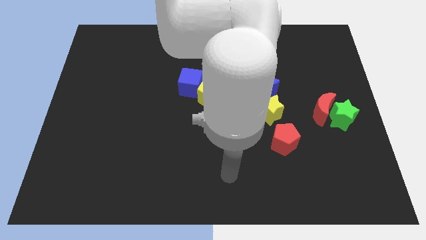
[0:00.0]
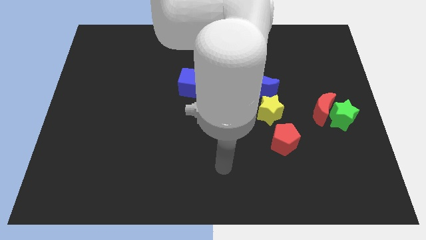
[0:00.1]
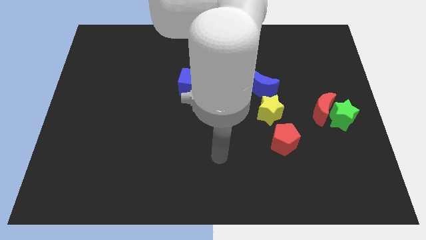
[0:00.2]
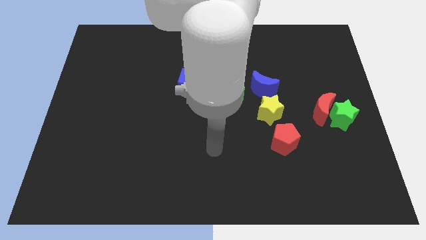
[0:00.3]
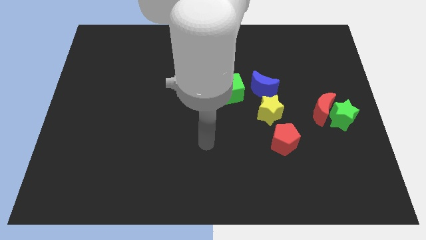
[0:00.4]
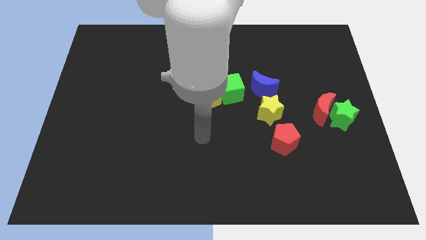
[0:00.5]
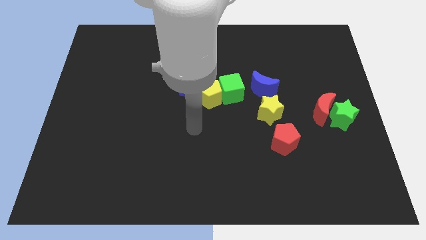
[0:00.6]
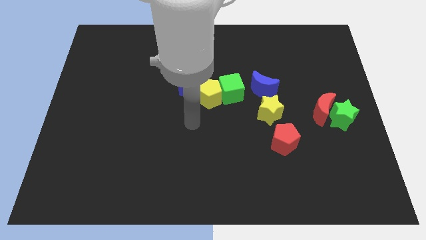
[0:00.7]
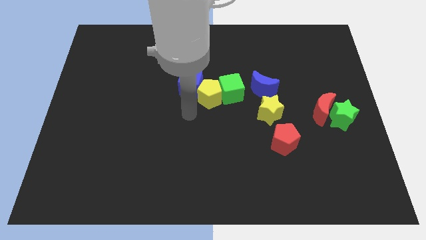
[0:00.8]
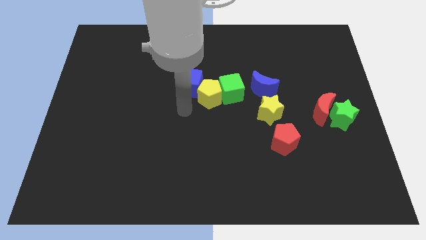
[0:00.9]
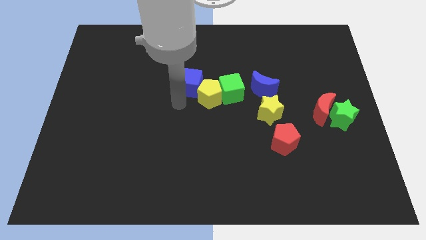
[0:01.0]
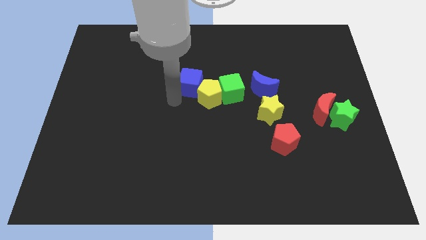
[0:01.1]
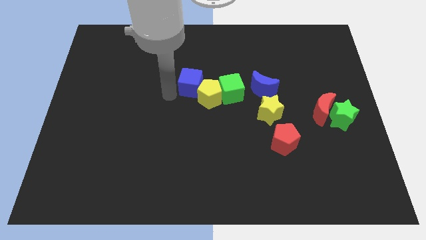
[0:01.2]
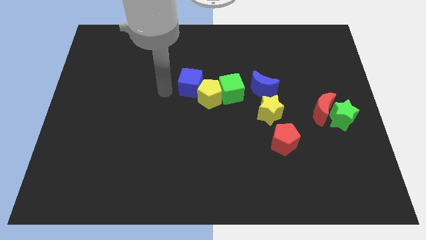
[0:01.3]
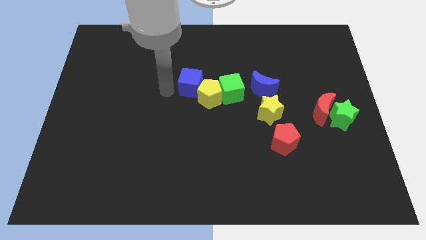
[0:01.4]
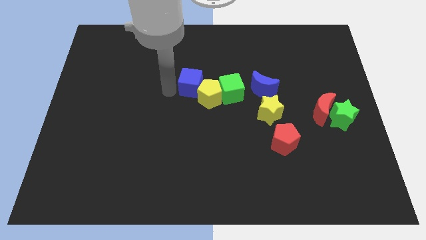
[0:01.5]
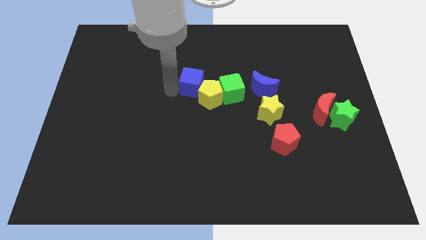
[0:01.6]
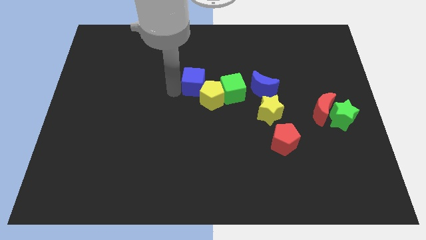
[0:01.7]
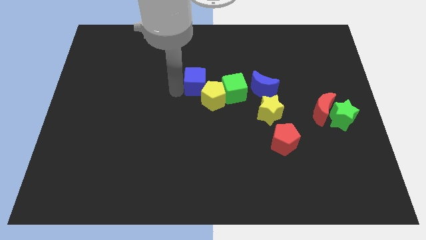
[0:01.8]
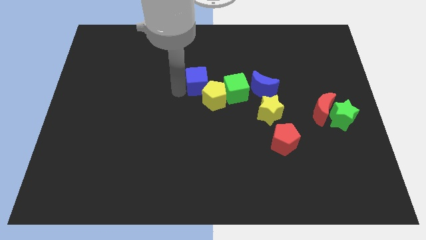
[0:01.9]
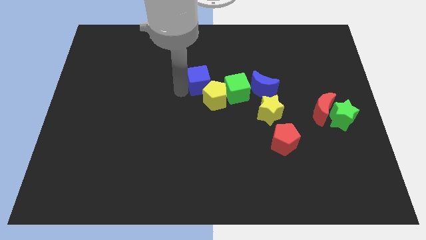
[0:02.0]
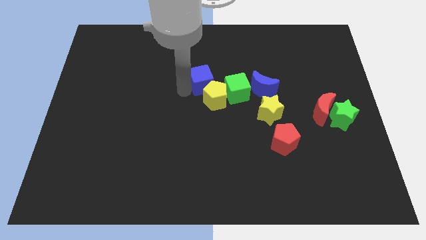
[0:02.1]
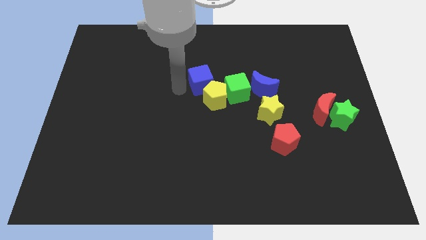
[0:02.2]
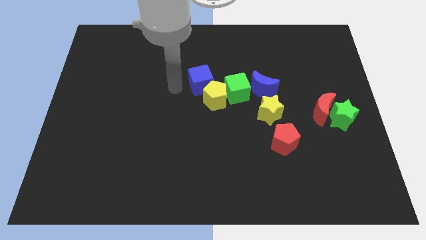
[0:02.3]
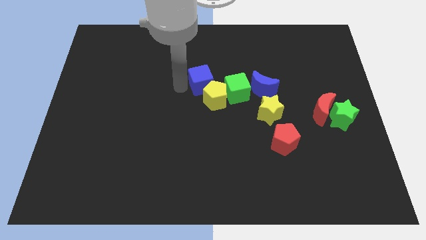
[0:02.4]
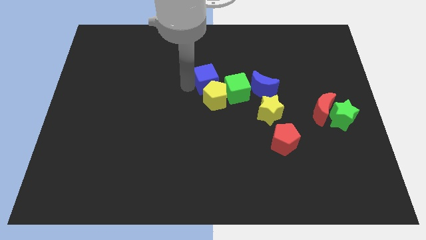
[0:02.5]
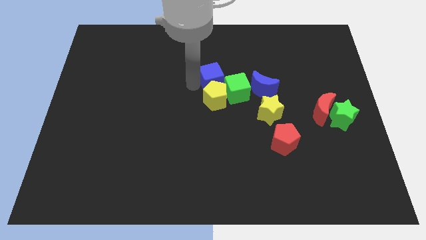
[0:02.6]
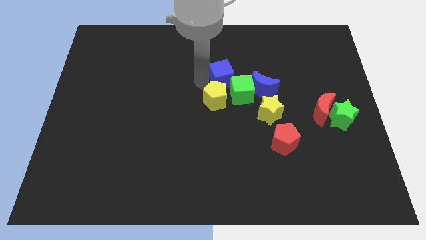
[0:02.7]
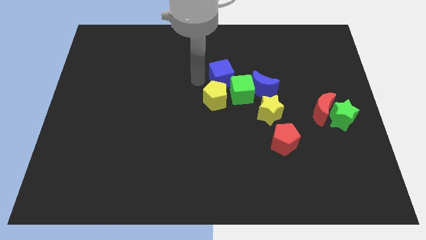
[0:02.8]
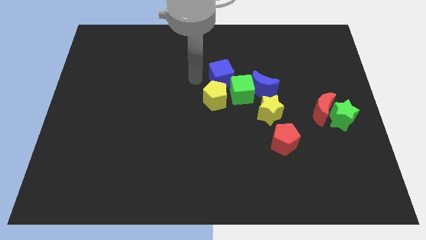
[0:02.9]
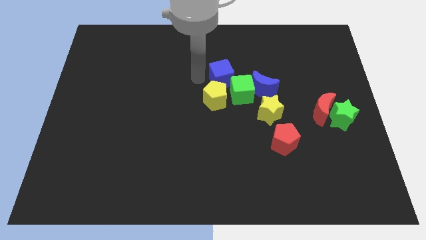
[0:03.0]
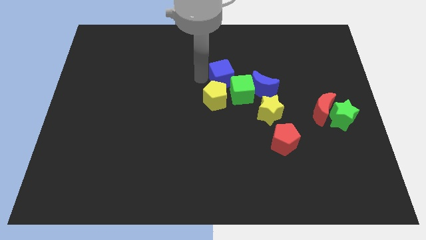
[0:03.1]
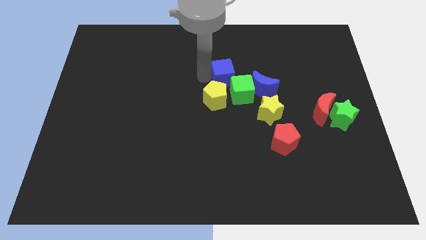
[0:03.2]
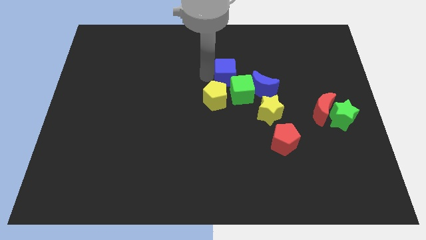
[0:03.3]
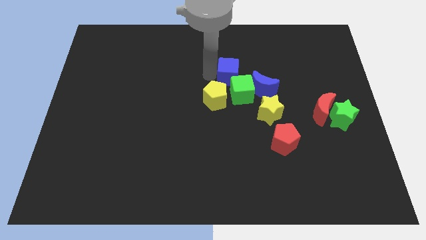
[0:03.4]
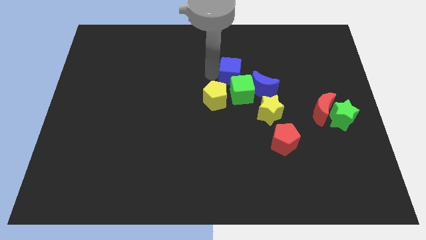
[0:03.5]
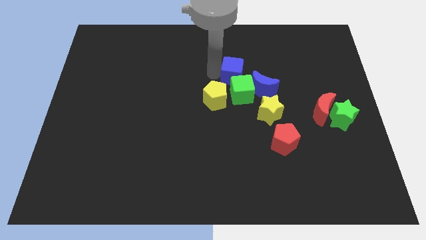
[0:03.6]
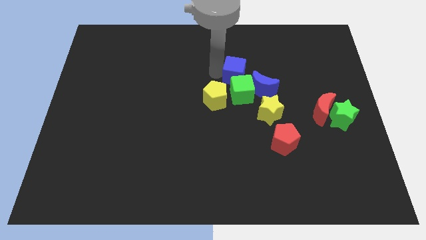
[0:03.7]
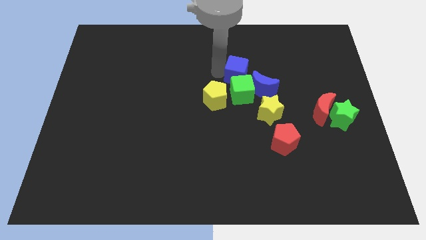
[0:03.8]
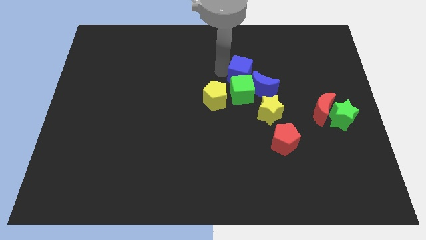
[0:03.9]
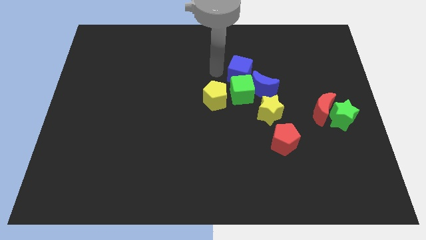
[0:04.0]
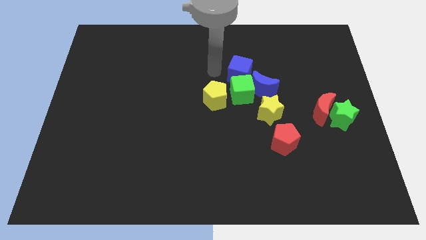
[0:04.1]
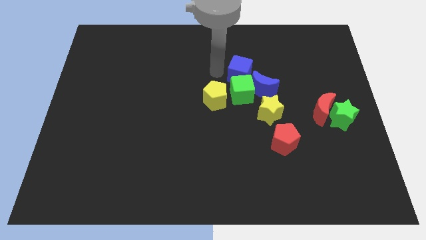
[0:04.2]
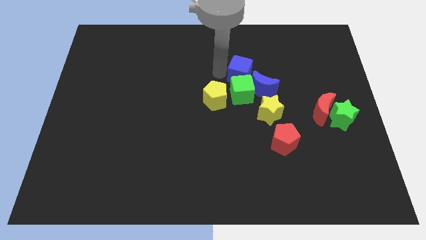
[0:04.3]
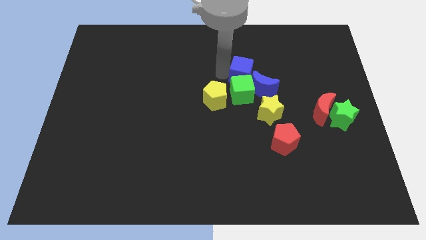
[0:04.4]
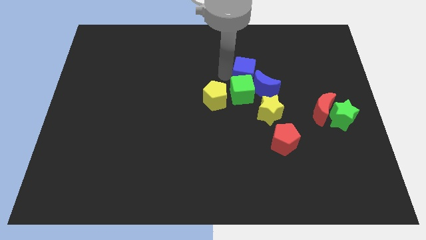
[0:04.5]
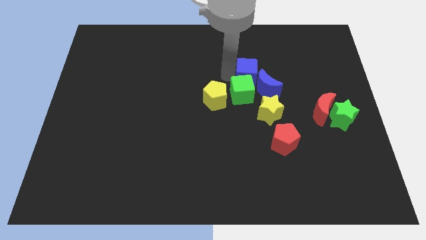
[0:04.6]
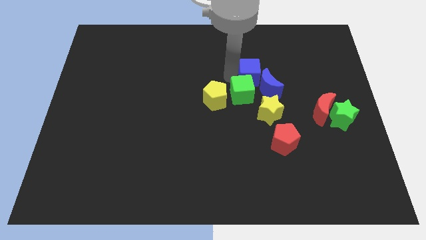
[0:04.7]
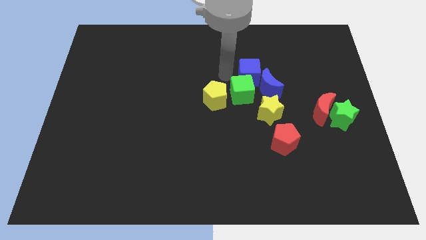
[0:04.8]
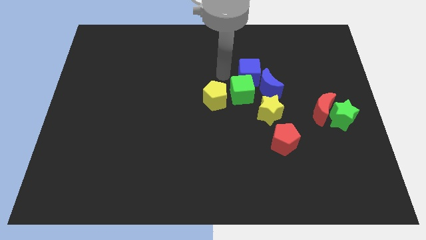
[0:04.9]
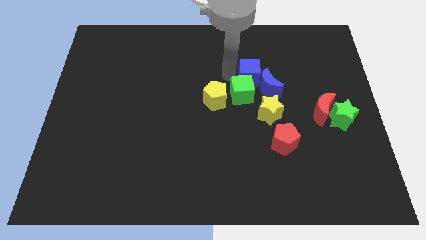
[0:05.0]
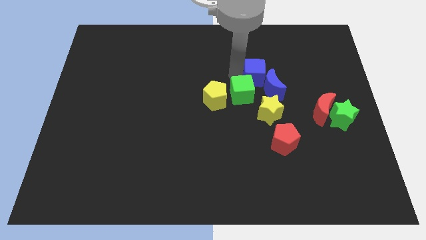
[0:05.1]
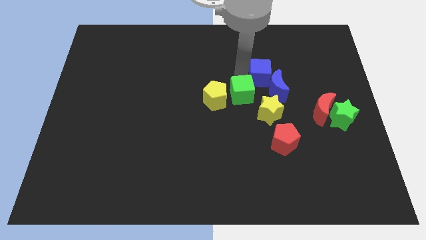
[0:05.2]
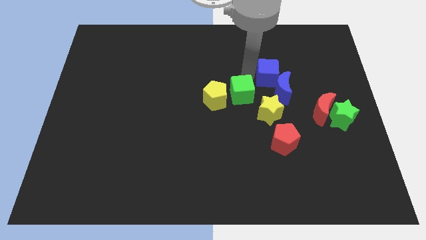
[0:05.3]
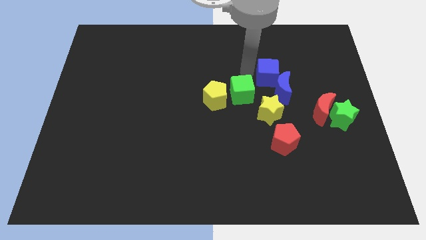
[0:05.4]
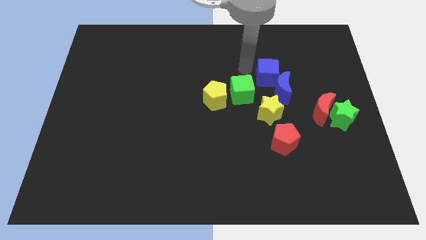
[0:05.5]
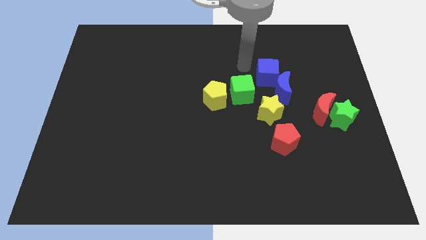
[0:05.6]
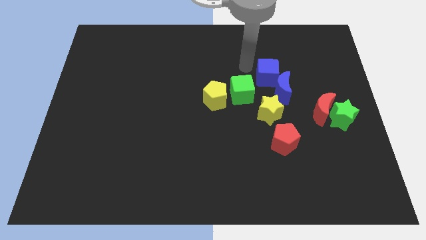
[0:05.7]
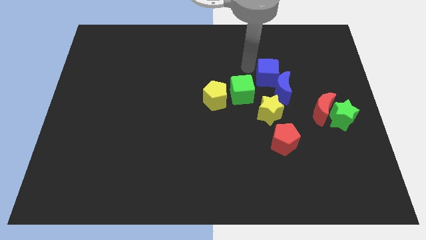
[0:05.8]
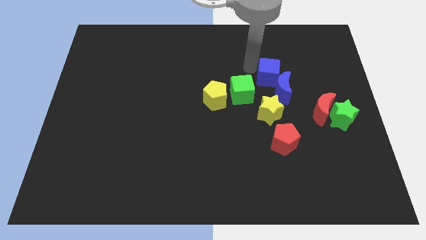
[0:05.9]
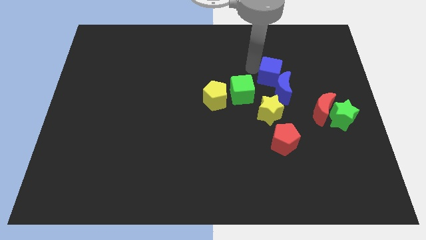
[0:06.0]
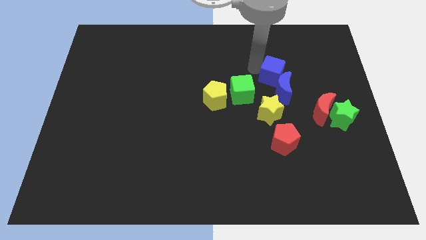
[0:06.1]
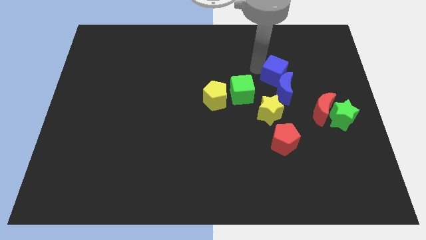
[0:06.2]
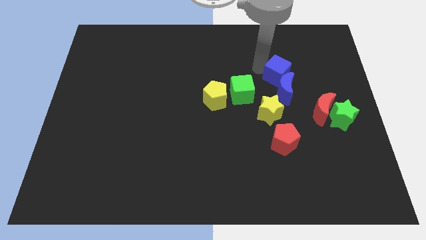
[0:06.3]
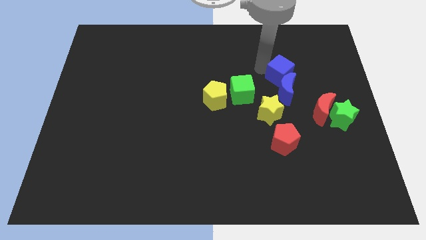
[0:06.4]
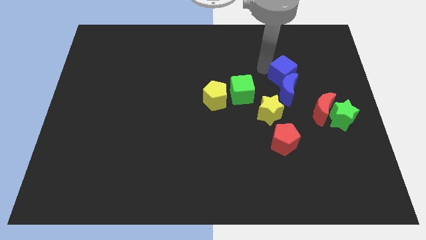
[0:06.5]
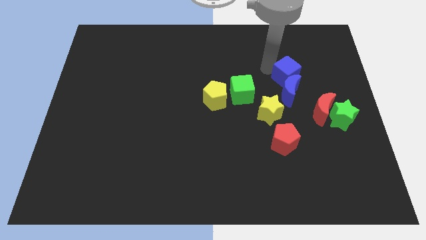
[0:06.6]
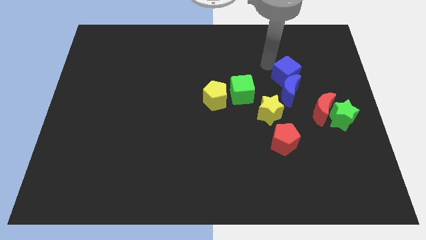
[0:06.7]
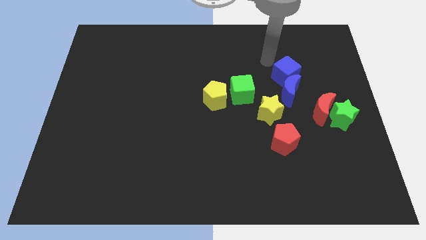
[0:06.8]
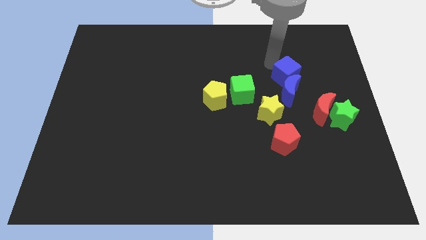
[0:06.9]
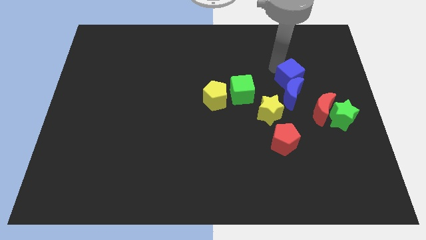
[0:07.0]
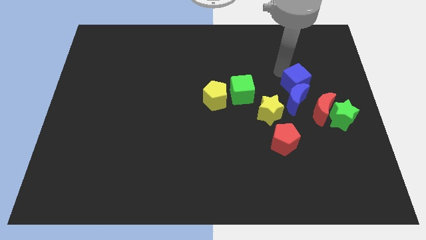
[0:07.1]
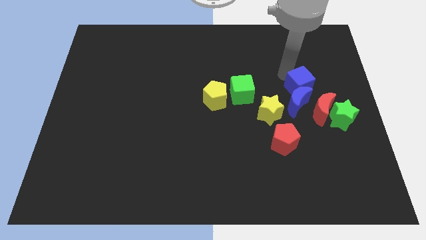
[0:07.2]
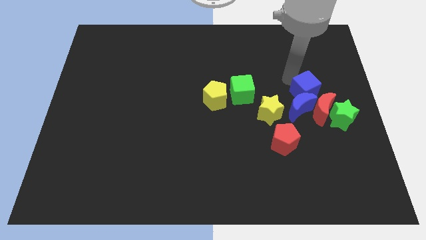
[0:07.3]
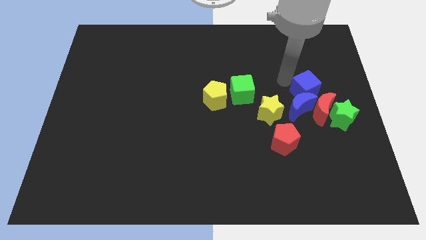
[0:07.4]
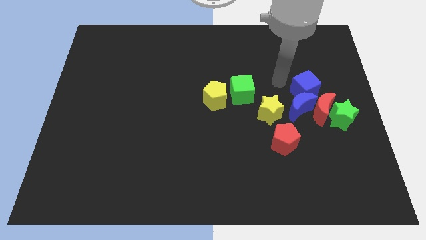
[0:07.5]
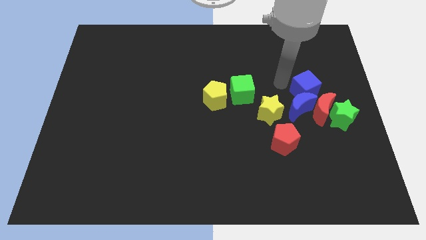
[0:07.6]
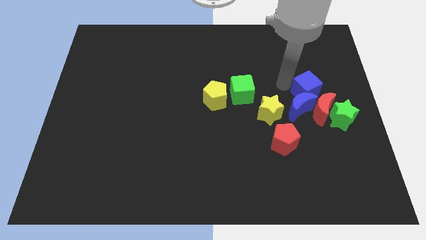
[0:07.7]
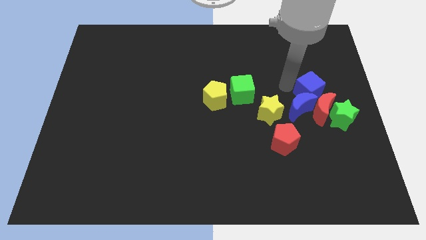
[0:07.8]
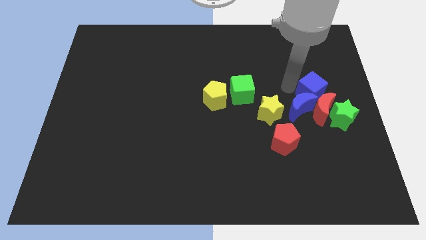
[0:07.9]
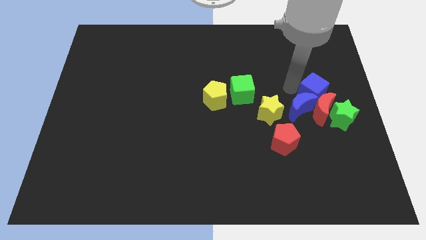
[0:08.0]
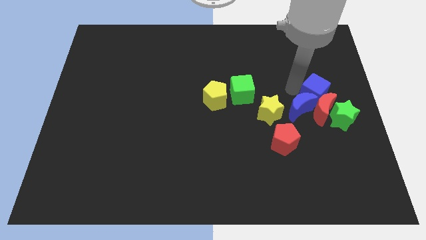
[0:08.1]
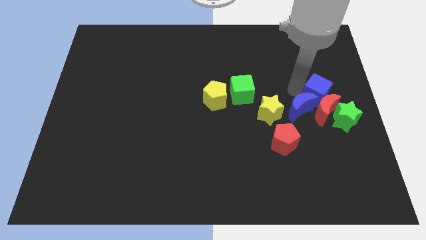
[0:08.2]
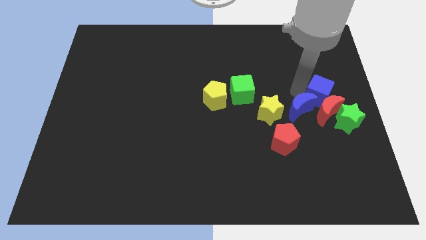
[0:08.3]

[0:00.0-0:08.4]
move the blue cube to the center right
